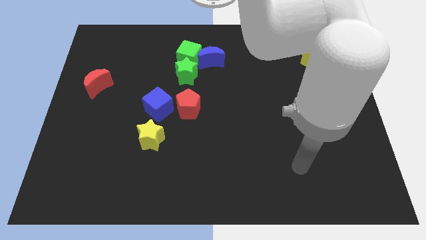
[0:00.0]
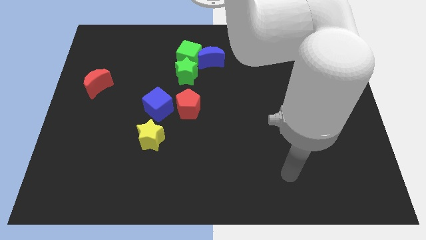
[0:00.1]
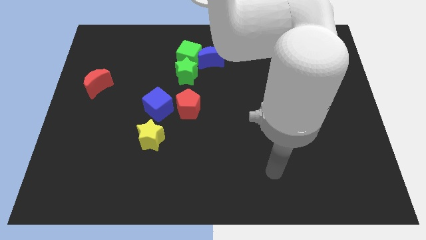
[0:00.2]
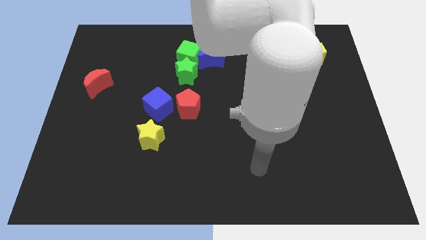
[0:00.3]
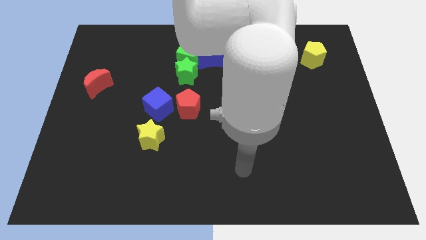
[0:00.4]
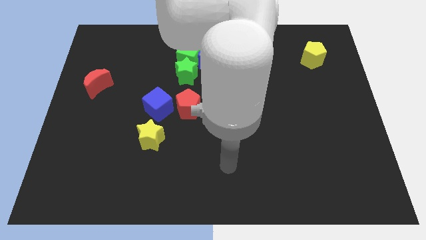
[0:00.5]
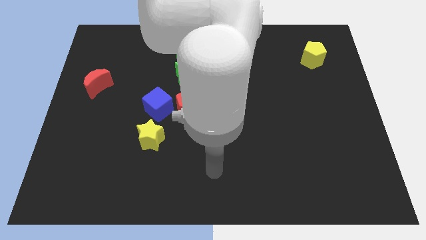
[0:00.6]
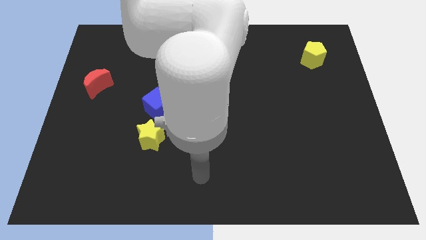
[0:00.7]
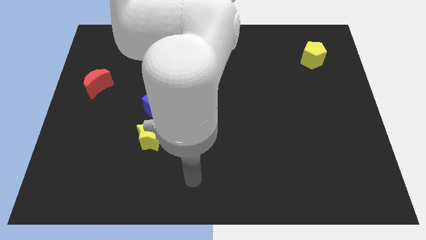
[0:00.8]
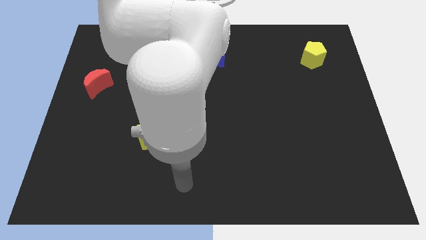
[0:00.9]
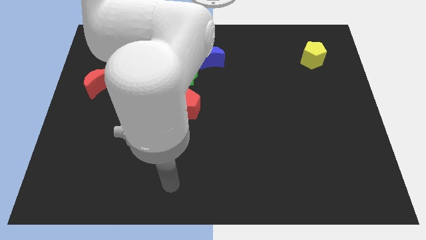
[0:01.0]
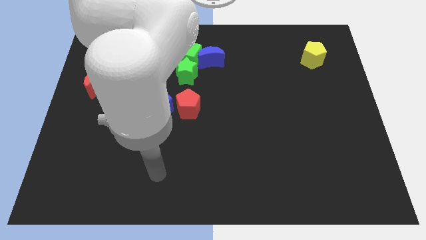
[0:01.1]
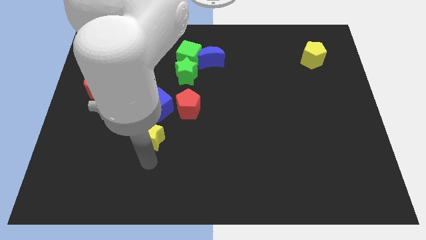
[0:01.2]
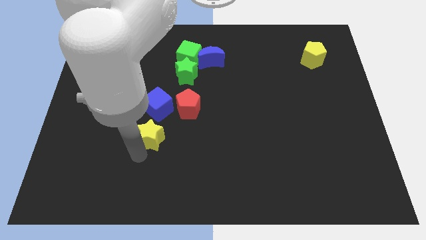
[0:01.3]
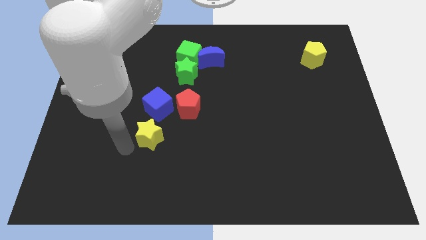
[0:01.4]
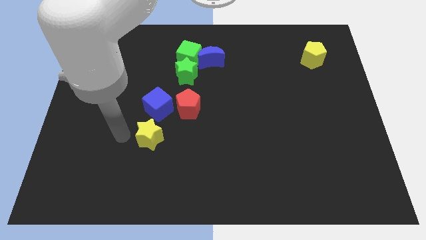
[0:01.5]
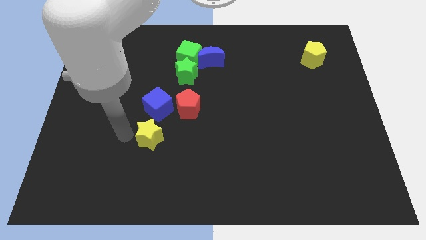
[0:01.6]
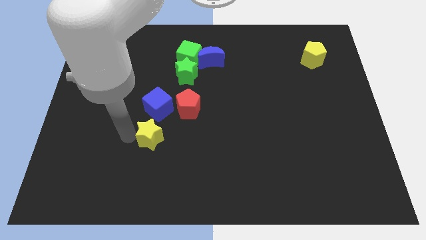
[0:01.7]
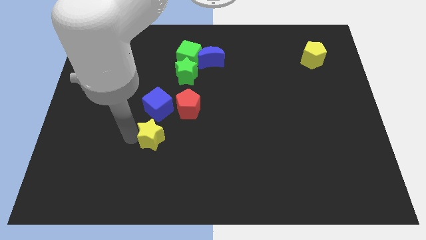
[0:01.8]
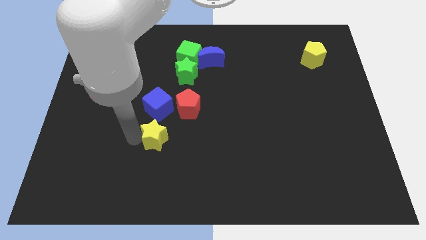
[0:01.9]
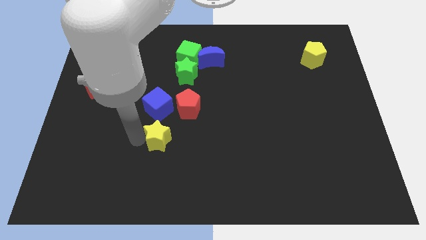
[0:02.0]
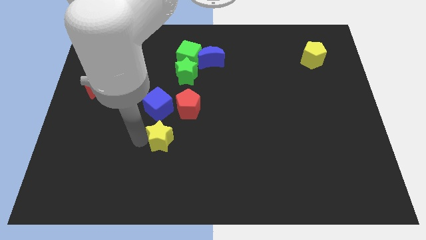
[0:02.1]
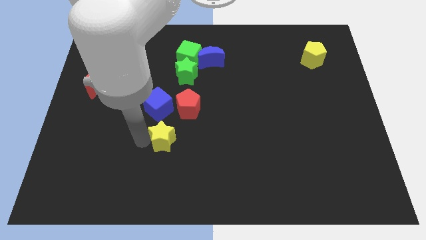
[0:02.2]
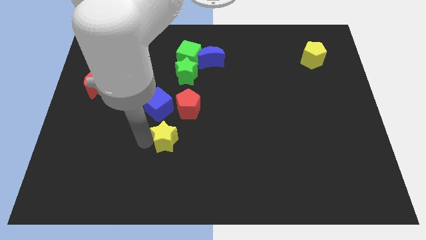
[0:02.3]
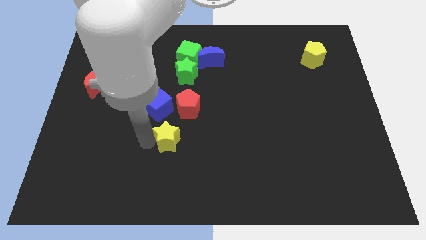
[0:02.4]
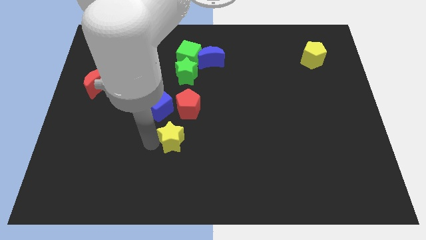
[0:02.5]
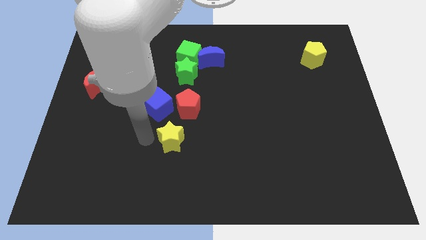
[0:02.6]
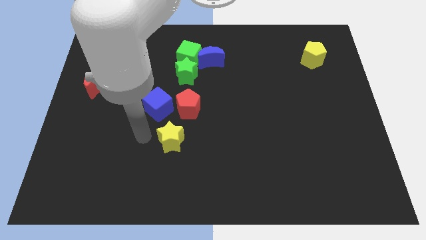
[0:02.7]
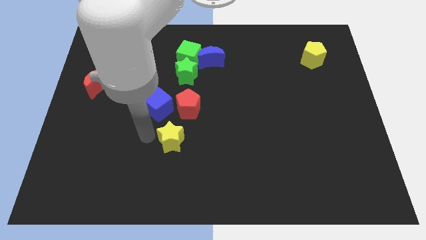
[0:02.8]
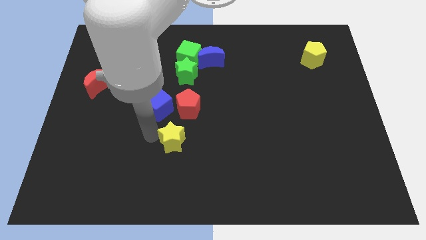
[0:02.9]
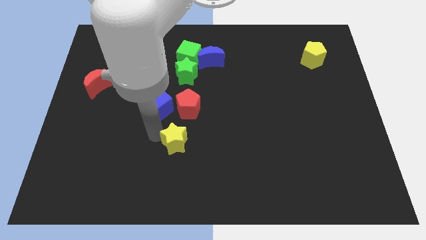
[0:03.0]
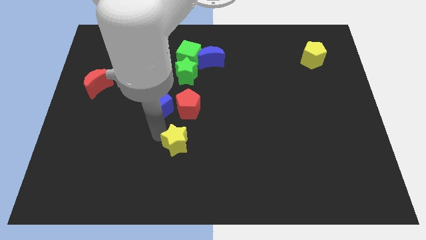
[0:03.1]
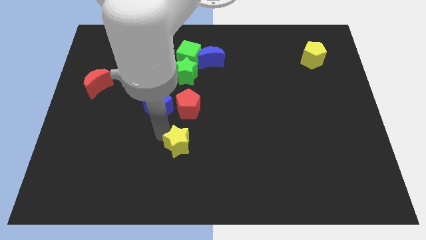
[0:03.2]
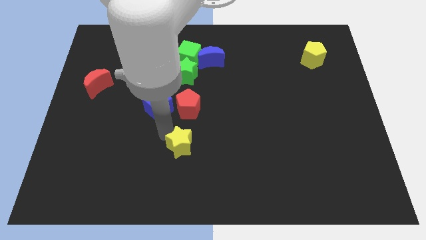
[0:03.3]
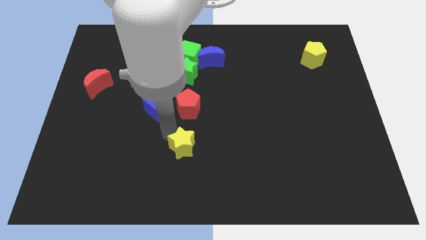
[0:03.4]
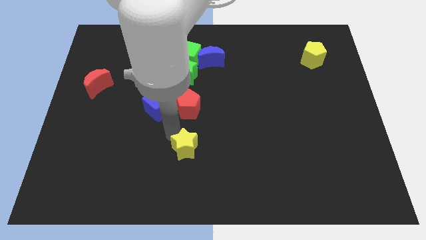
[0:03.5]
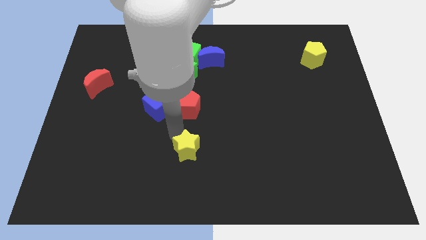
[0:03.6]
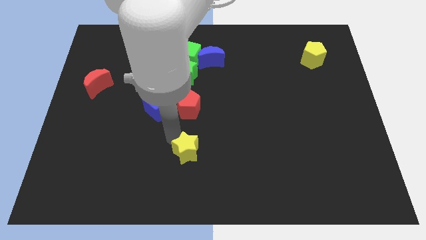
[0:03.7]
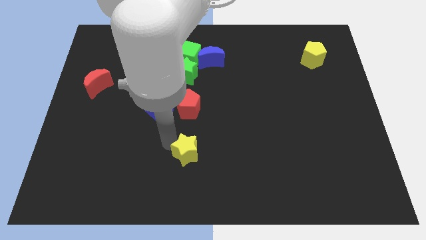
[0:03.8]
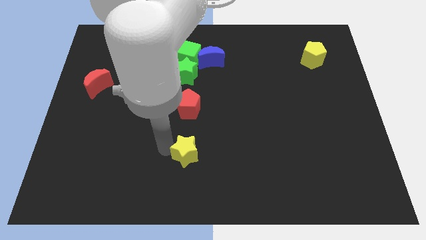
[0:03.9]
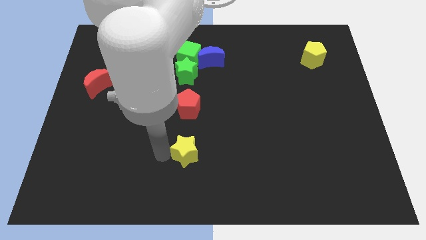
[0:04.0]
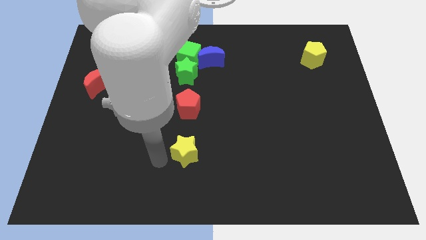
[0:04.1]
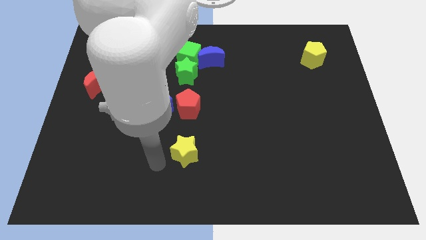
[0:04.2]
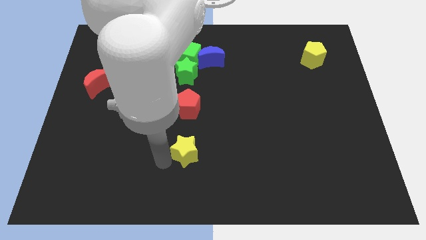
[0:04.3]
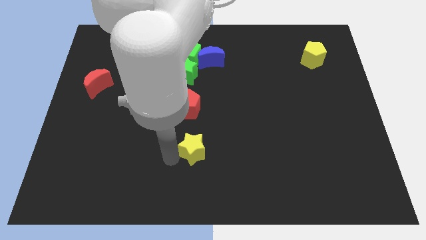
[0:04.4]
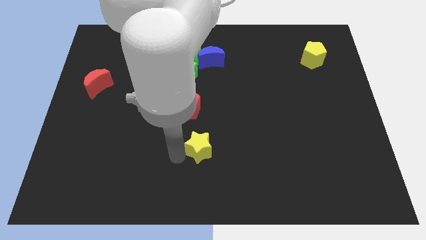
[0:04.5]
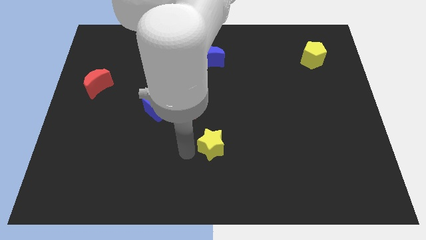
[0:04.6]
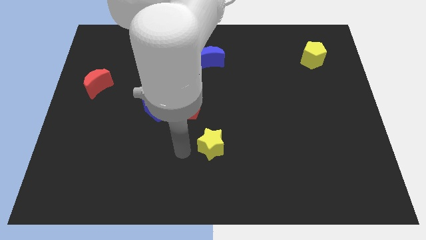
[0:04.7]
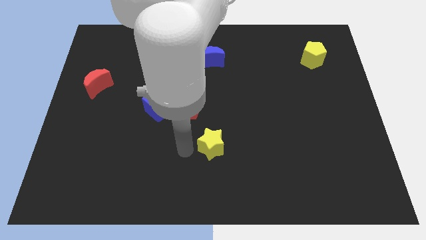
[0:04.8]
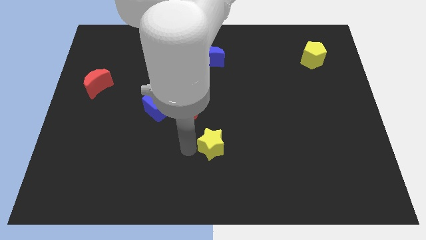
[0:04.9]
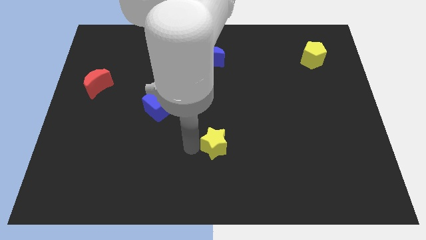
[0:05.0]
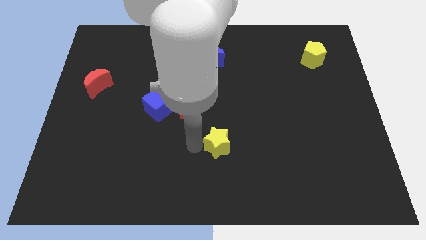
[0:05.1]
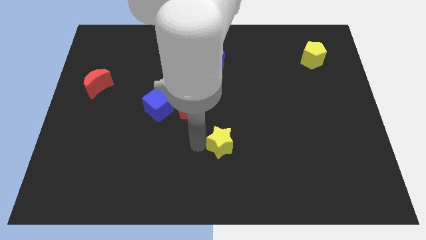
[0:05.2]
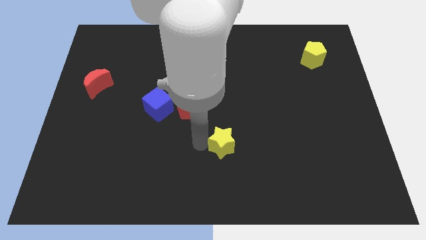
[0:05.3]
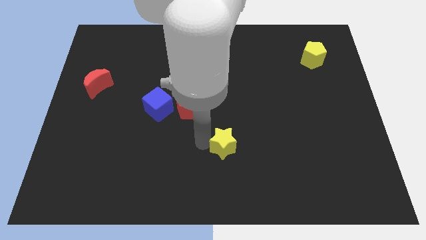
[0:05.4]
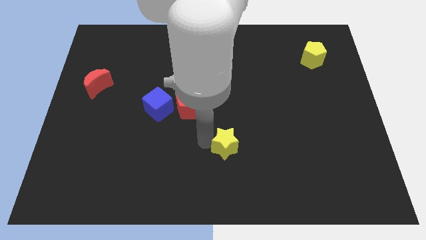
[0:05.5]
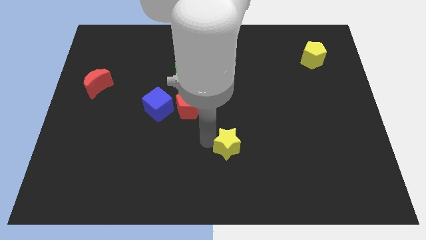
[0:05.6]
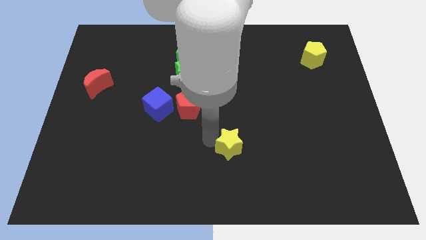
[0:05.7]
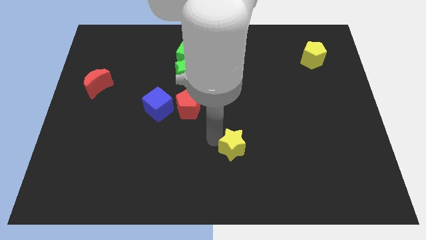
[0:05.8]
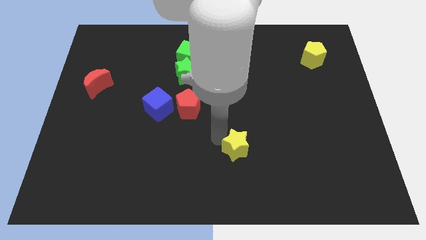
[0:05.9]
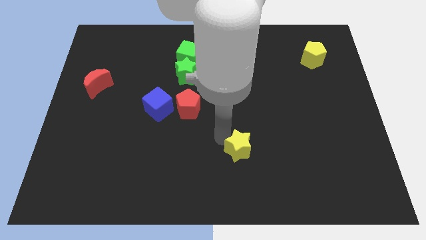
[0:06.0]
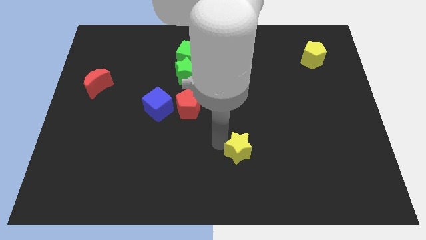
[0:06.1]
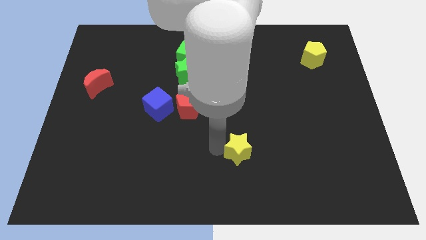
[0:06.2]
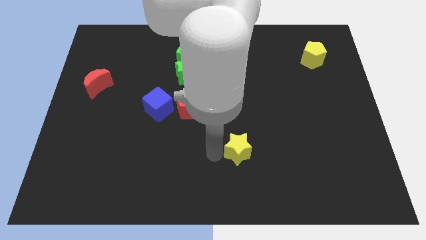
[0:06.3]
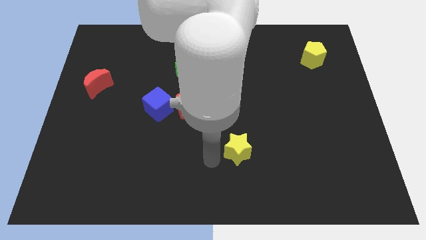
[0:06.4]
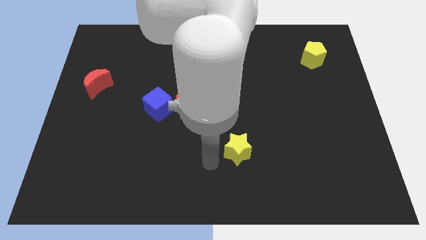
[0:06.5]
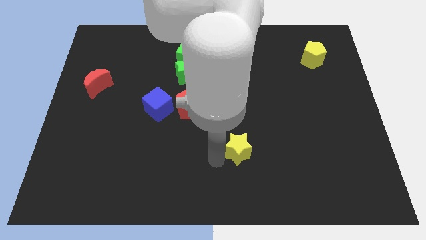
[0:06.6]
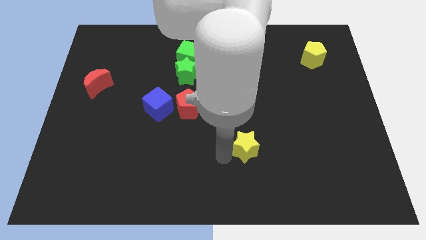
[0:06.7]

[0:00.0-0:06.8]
move the yellow star to the right

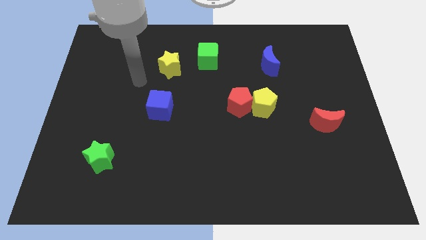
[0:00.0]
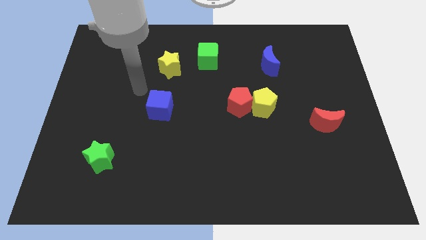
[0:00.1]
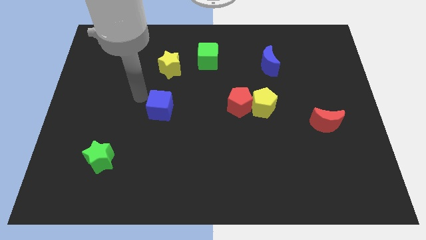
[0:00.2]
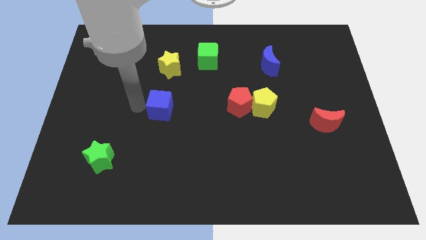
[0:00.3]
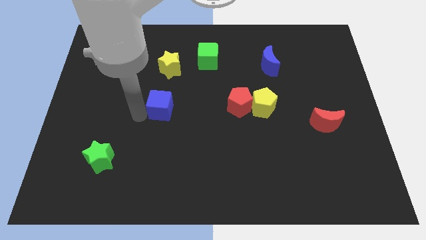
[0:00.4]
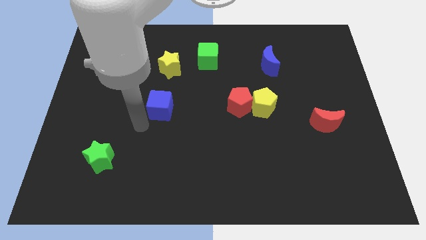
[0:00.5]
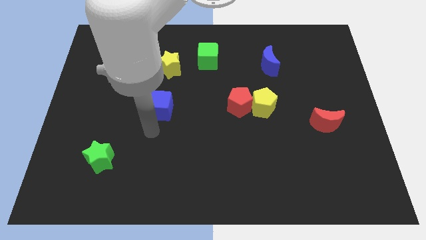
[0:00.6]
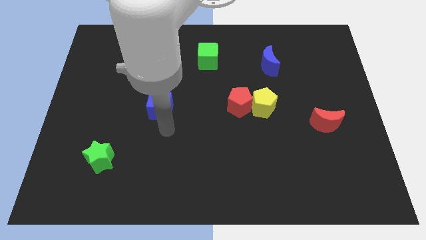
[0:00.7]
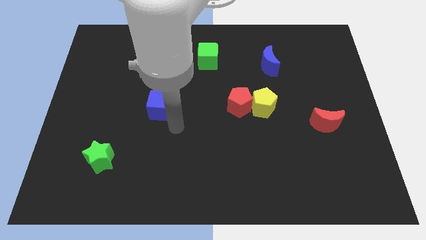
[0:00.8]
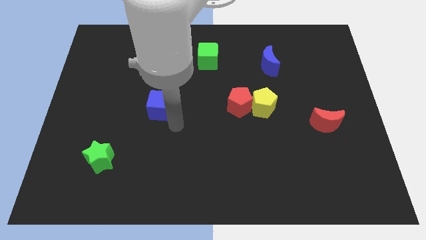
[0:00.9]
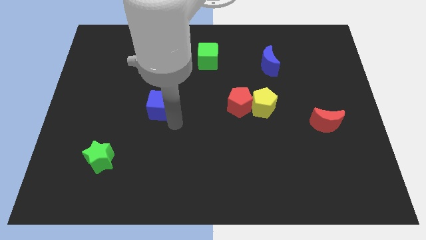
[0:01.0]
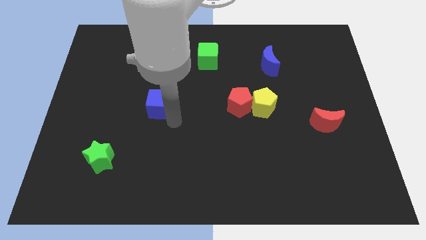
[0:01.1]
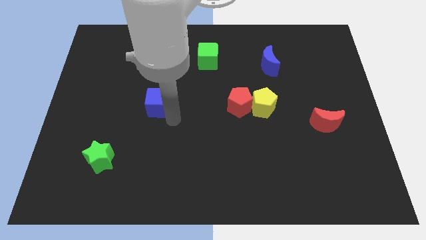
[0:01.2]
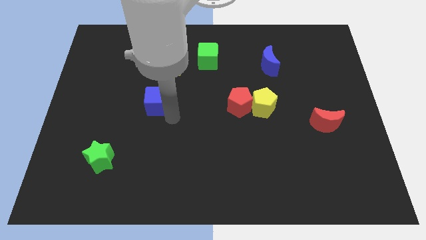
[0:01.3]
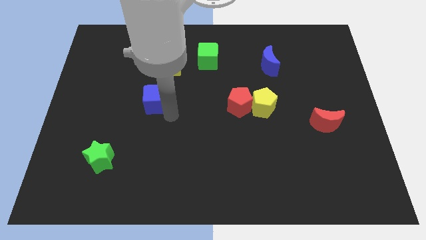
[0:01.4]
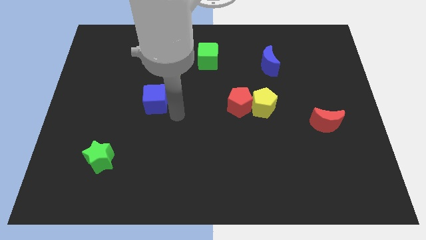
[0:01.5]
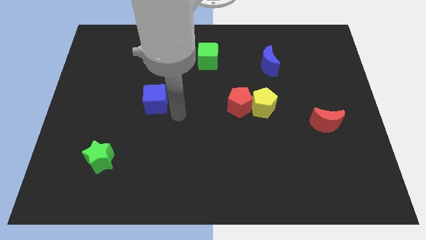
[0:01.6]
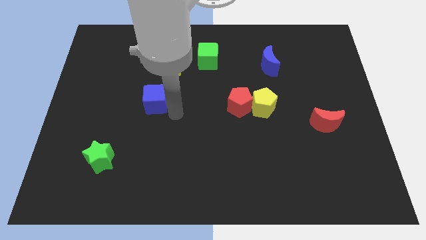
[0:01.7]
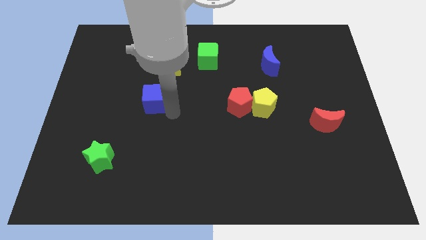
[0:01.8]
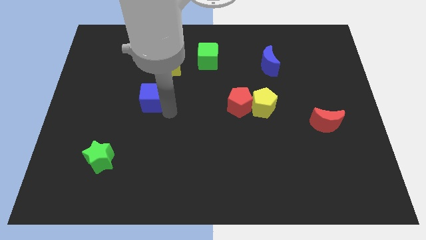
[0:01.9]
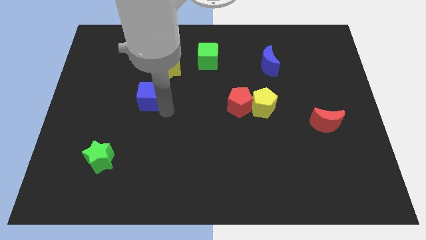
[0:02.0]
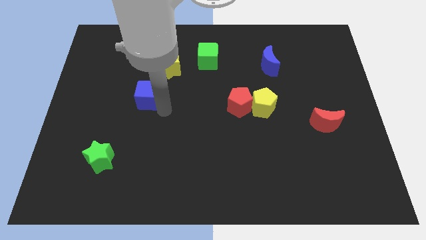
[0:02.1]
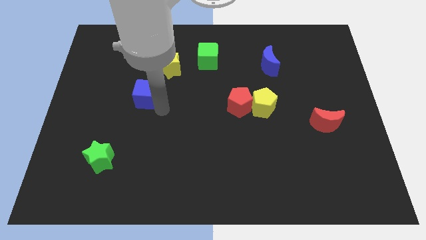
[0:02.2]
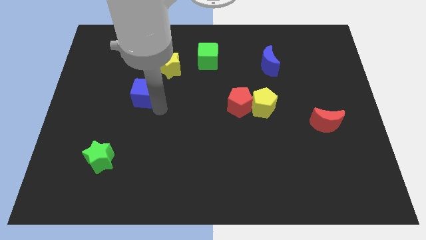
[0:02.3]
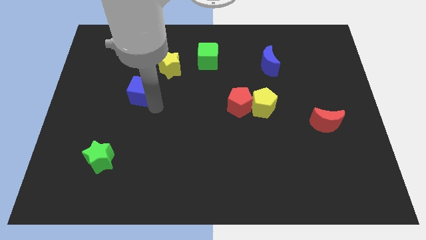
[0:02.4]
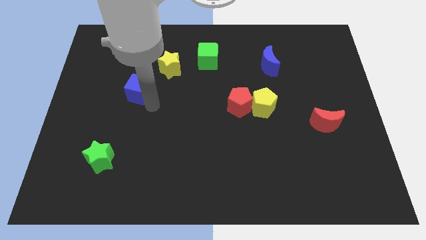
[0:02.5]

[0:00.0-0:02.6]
slightly slide the blue cube up and to the left diagonally
